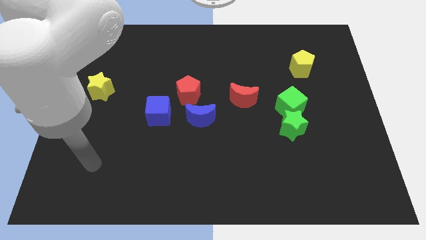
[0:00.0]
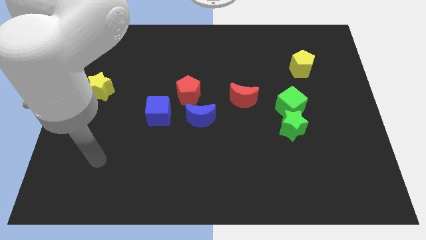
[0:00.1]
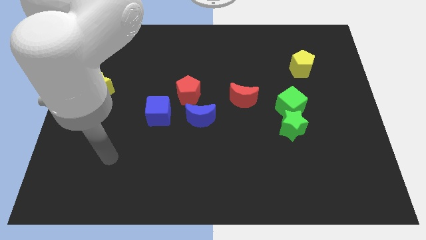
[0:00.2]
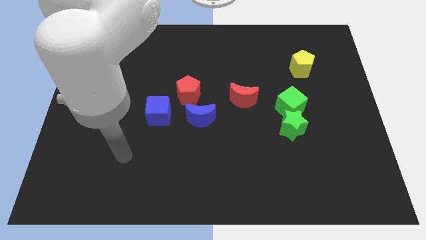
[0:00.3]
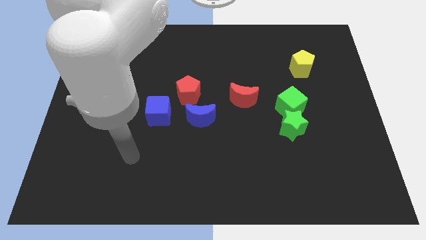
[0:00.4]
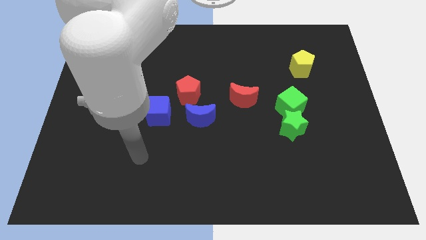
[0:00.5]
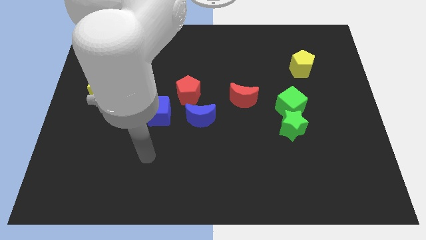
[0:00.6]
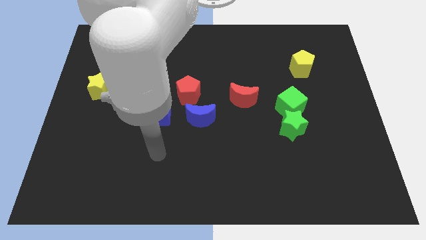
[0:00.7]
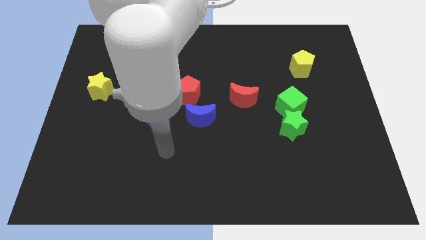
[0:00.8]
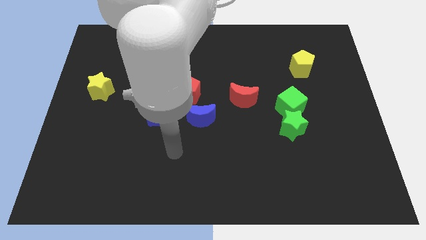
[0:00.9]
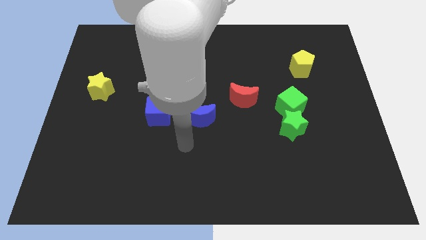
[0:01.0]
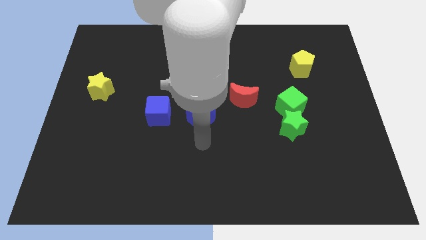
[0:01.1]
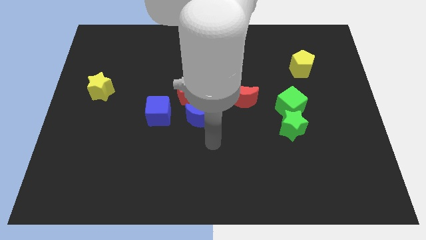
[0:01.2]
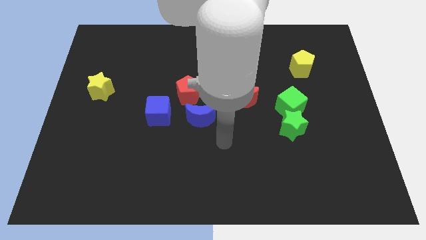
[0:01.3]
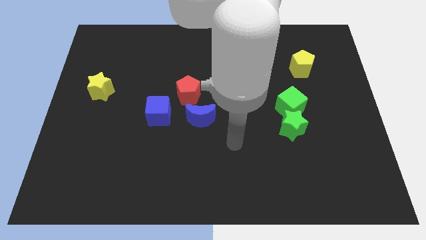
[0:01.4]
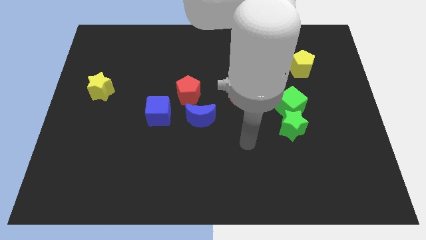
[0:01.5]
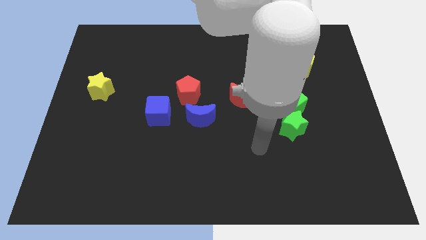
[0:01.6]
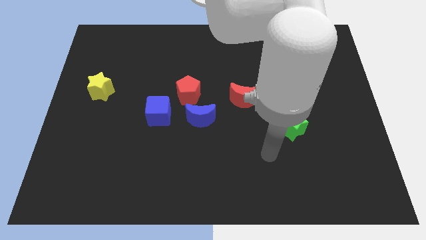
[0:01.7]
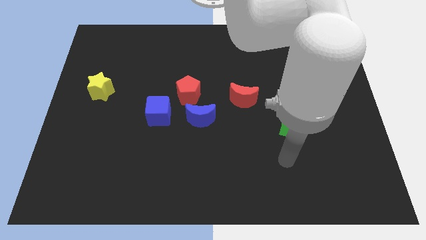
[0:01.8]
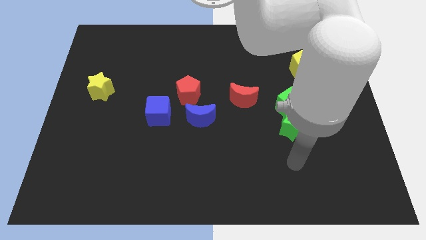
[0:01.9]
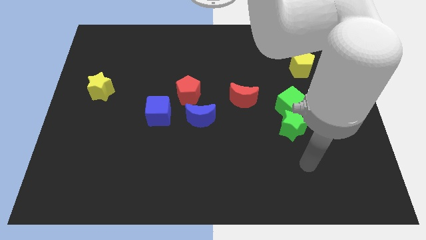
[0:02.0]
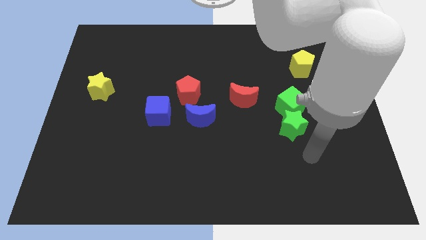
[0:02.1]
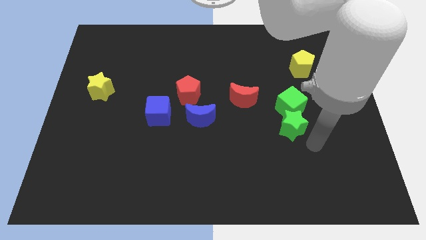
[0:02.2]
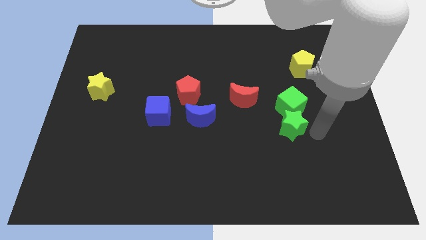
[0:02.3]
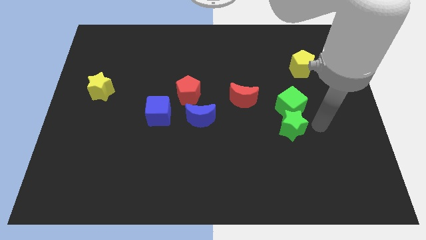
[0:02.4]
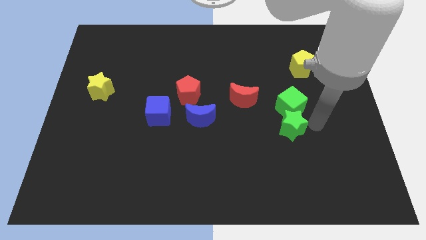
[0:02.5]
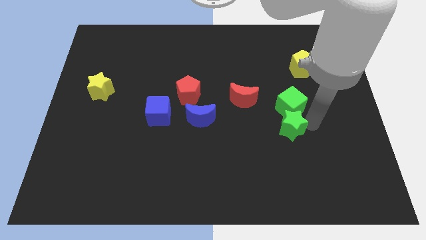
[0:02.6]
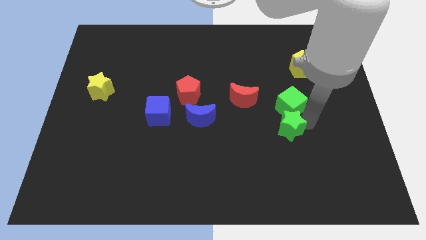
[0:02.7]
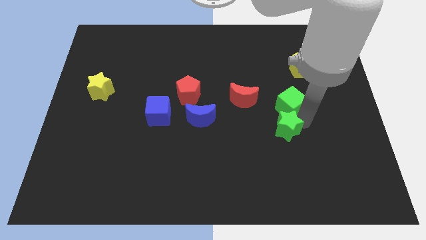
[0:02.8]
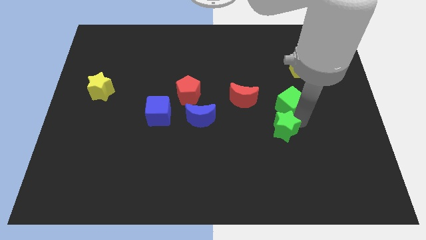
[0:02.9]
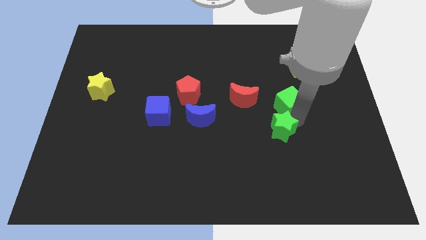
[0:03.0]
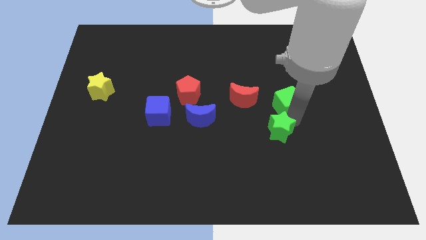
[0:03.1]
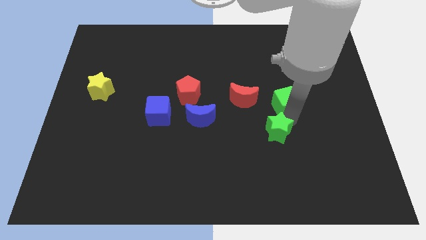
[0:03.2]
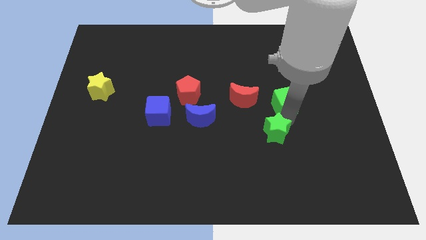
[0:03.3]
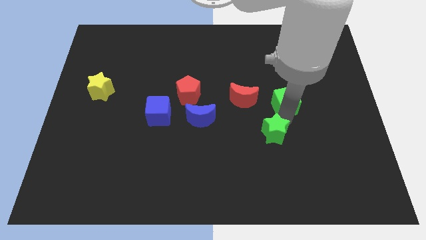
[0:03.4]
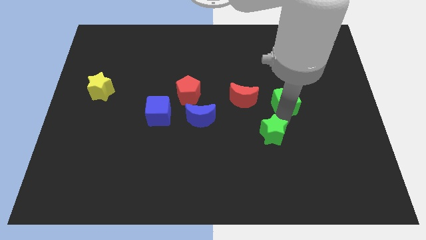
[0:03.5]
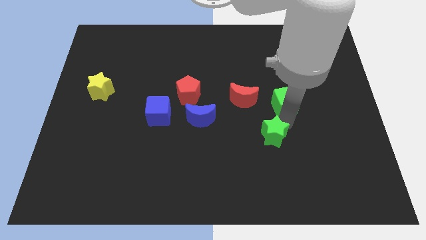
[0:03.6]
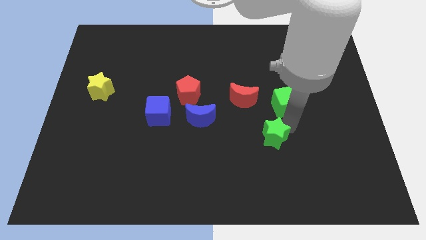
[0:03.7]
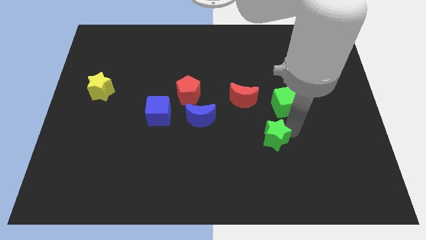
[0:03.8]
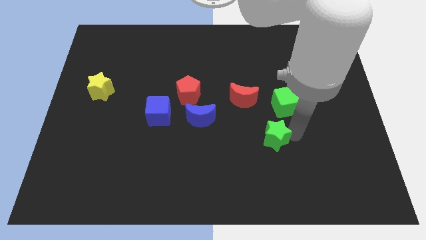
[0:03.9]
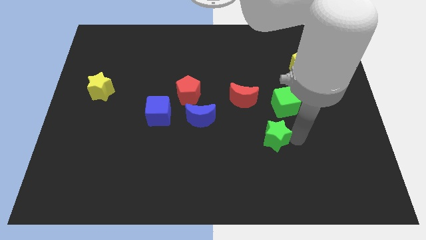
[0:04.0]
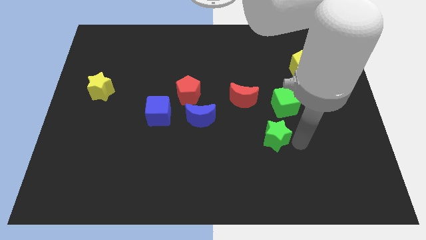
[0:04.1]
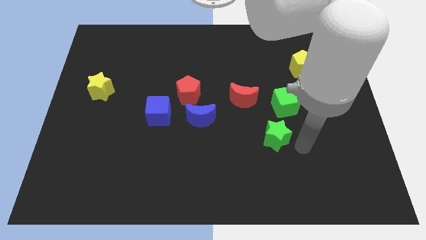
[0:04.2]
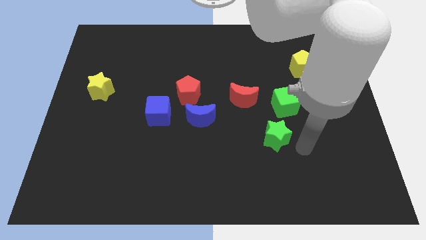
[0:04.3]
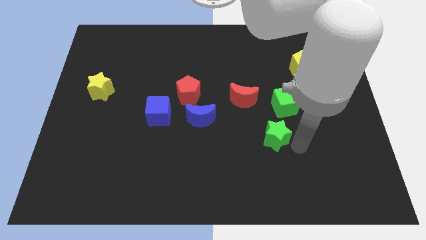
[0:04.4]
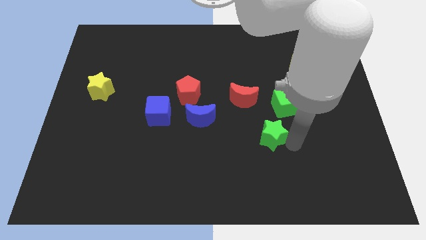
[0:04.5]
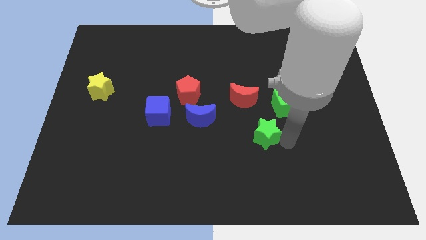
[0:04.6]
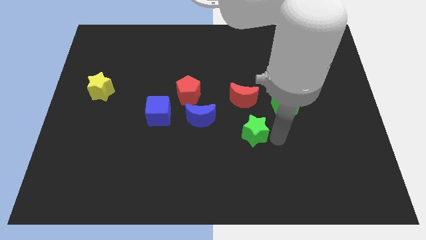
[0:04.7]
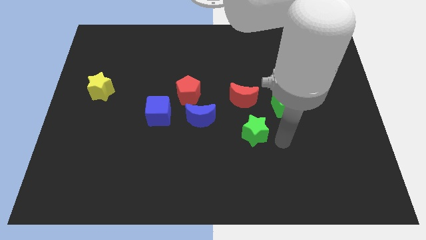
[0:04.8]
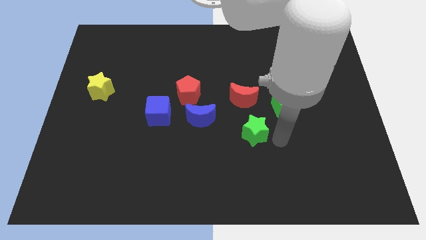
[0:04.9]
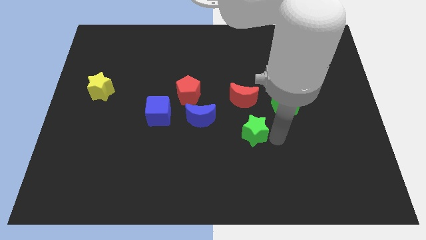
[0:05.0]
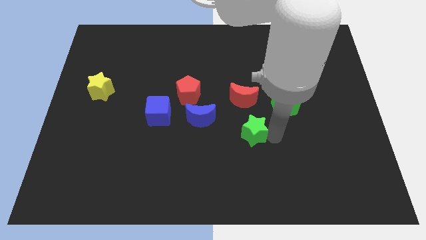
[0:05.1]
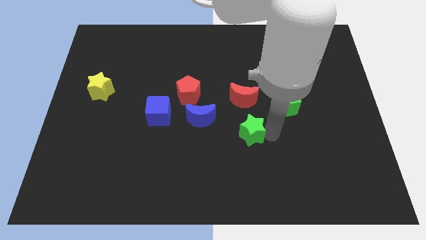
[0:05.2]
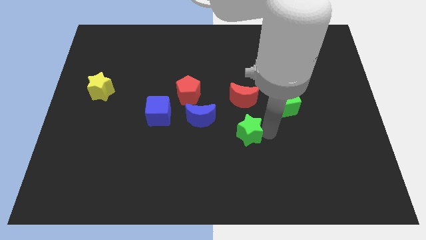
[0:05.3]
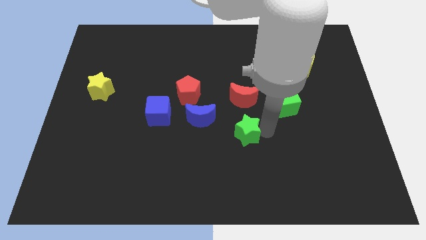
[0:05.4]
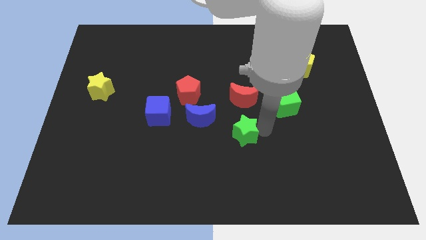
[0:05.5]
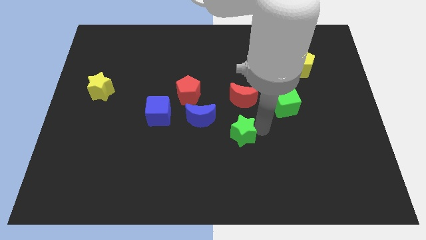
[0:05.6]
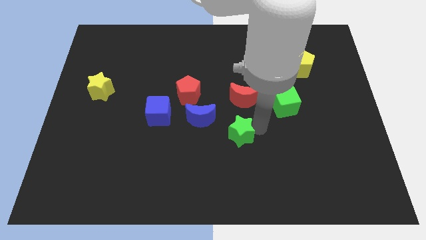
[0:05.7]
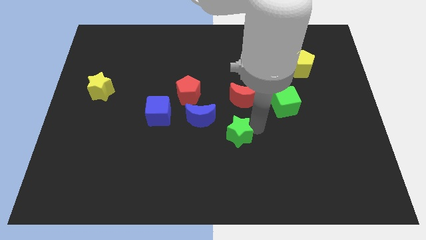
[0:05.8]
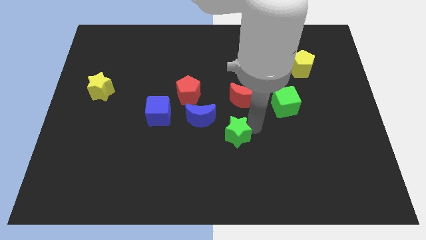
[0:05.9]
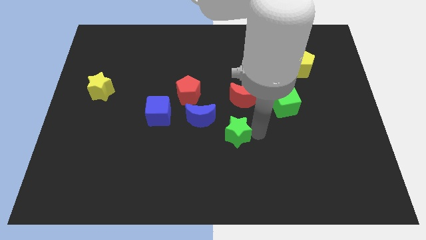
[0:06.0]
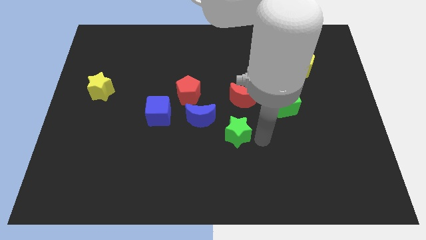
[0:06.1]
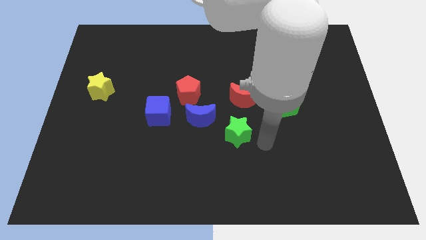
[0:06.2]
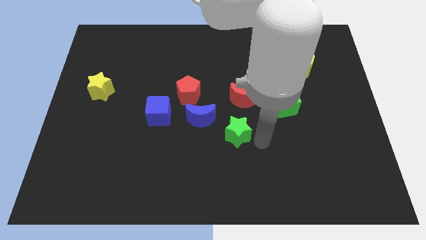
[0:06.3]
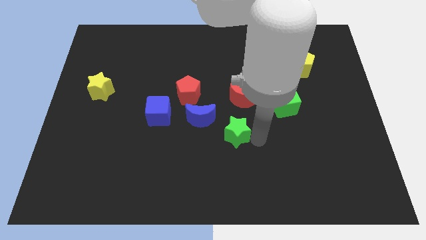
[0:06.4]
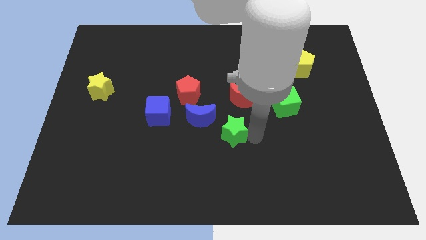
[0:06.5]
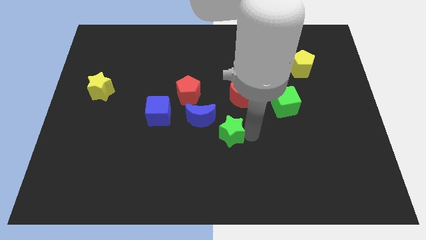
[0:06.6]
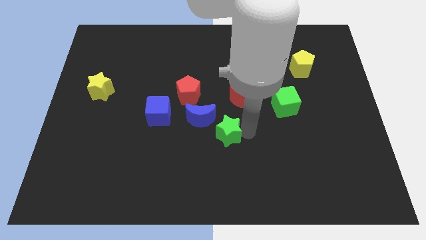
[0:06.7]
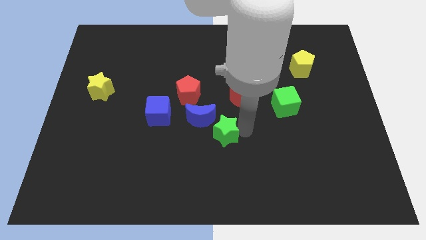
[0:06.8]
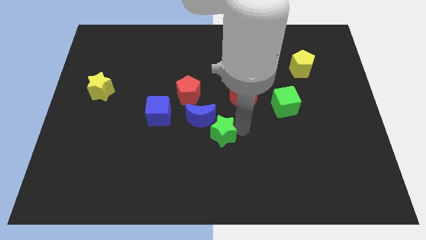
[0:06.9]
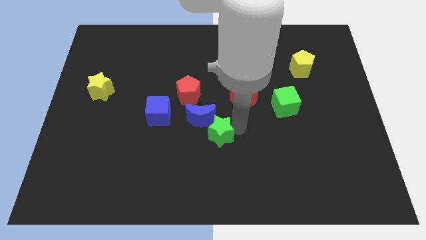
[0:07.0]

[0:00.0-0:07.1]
push the green star towards the blue moon
